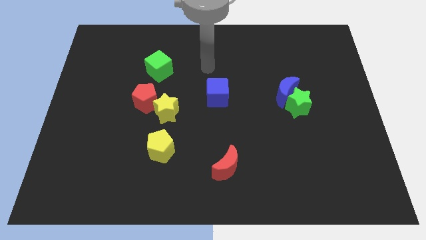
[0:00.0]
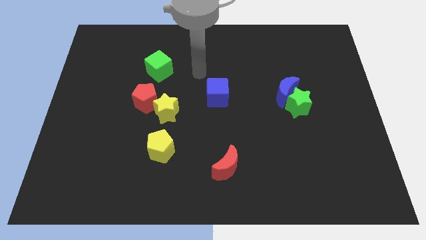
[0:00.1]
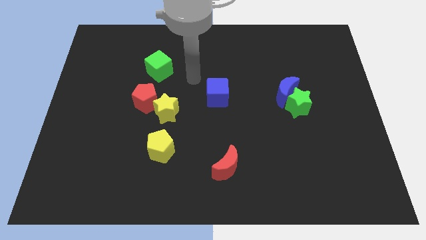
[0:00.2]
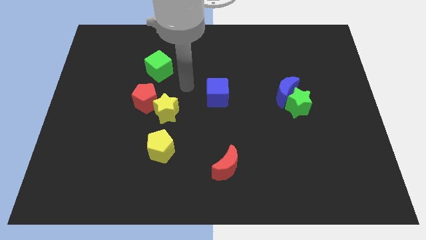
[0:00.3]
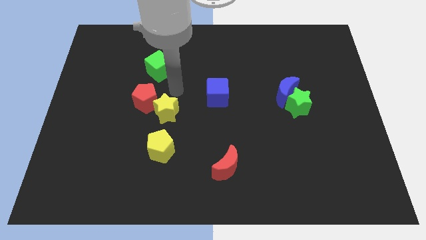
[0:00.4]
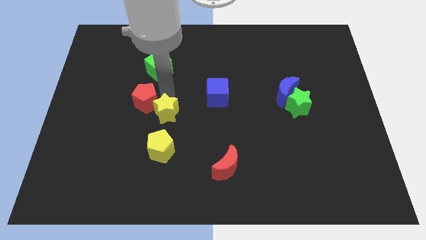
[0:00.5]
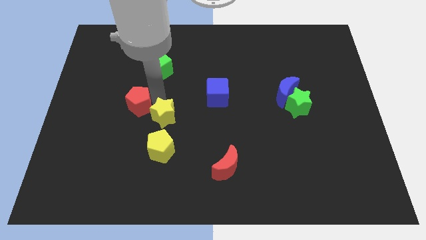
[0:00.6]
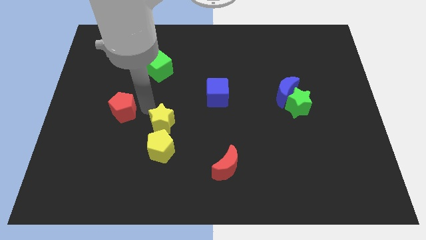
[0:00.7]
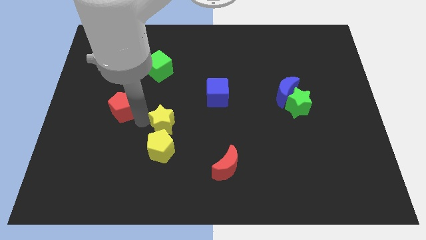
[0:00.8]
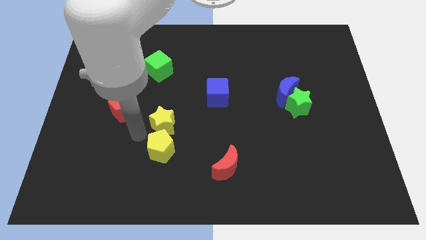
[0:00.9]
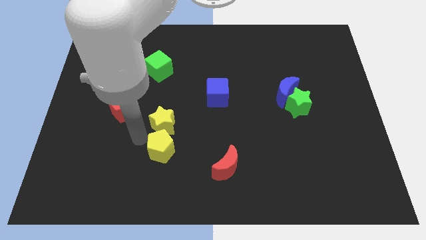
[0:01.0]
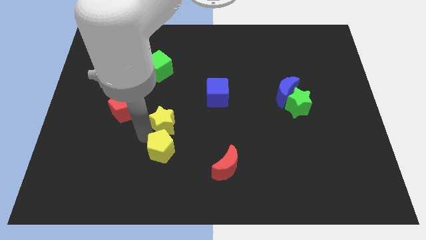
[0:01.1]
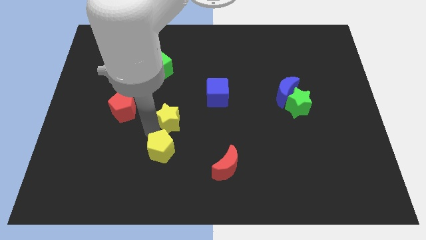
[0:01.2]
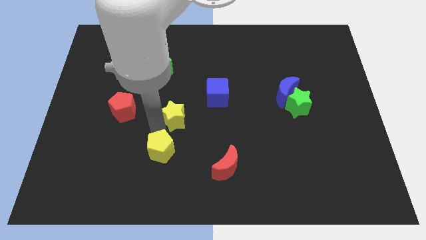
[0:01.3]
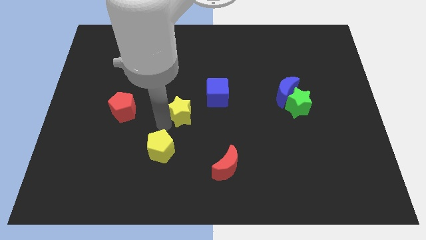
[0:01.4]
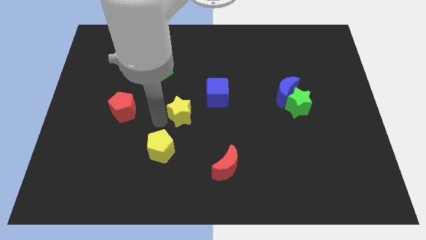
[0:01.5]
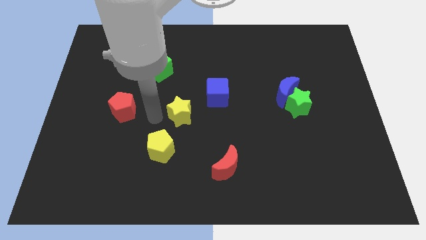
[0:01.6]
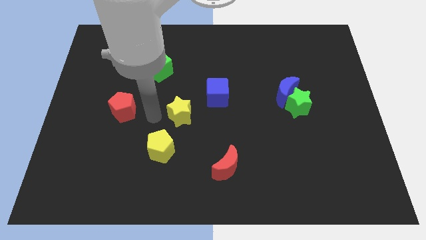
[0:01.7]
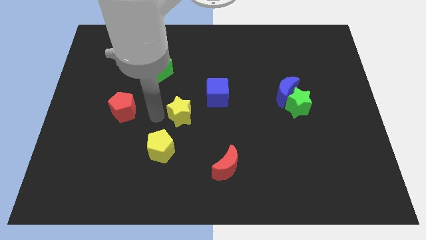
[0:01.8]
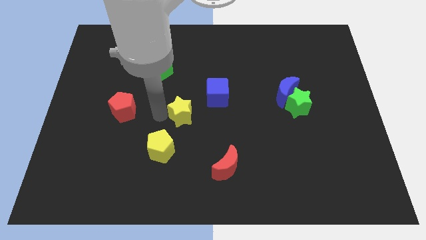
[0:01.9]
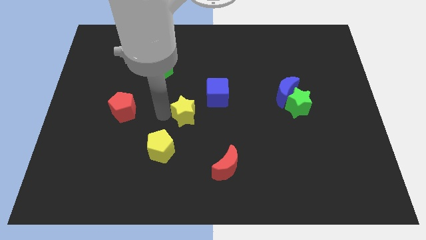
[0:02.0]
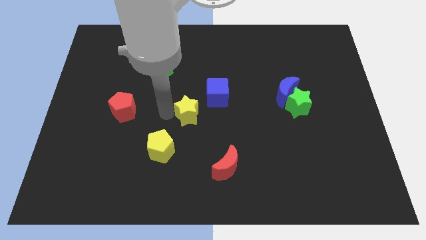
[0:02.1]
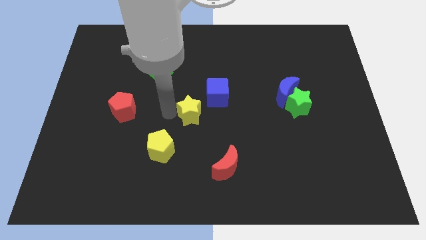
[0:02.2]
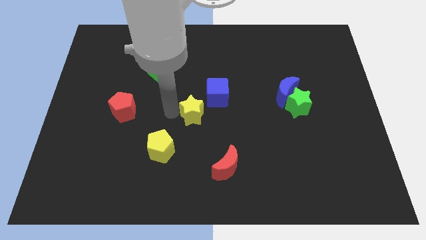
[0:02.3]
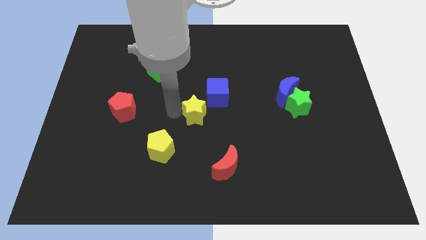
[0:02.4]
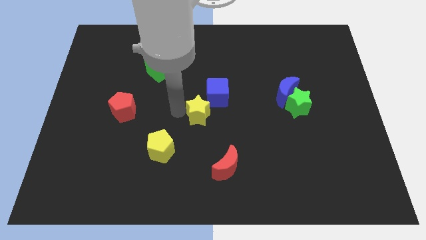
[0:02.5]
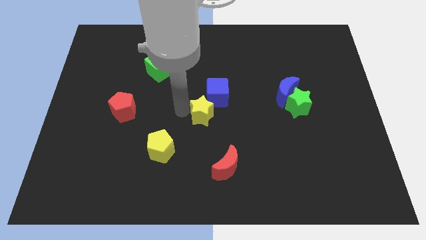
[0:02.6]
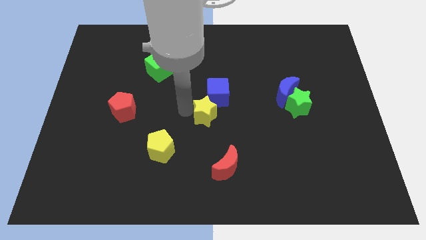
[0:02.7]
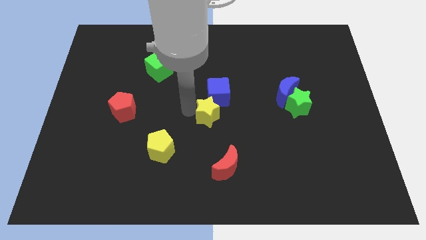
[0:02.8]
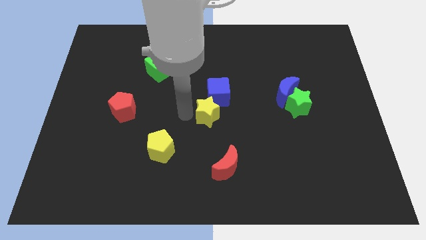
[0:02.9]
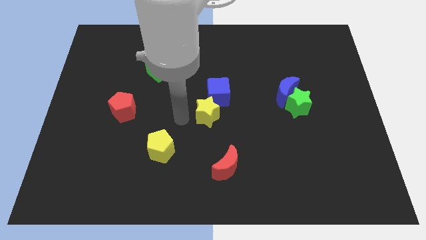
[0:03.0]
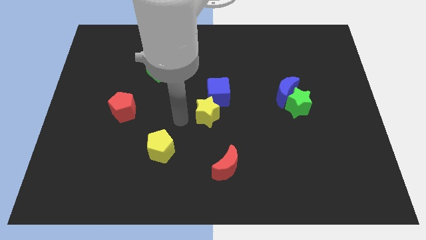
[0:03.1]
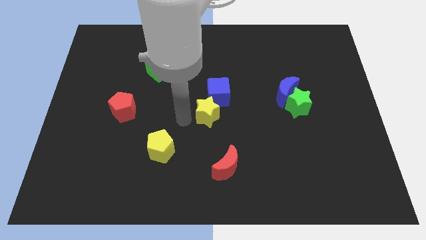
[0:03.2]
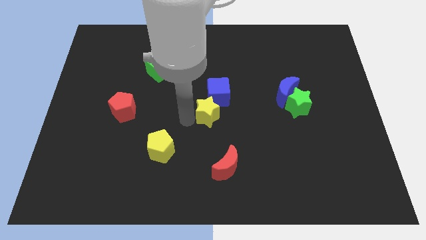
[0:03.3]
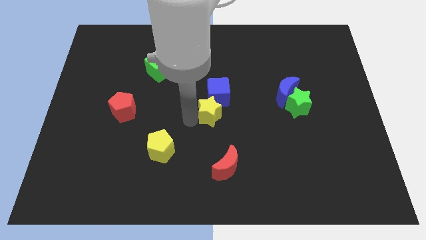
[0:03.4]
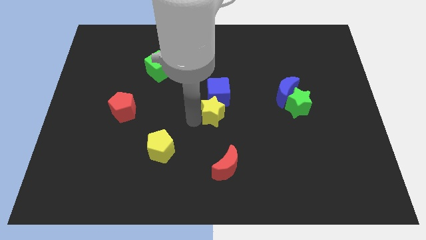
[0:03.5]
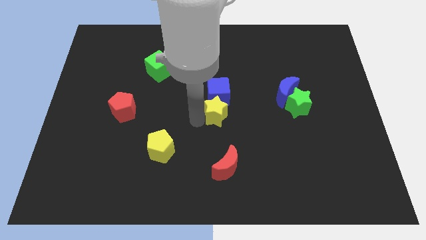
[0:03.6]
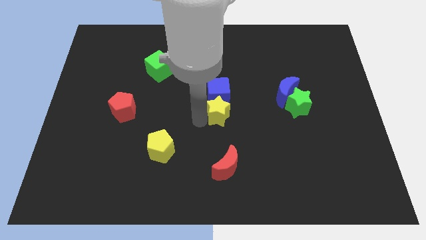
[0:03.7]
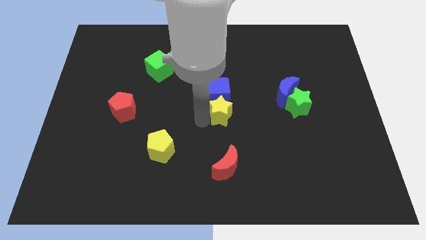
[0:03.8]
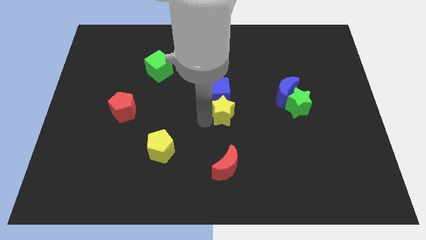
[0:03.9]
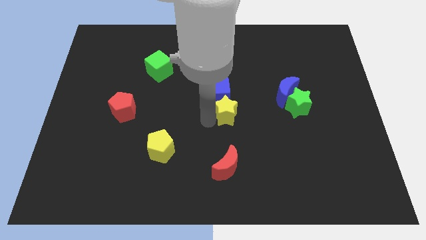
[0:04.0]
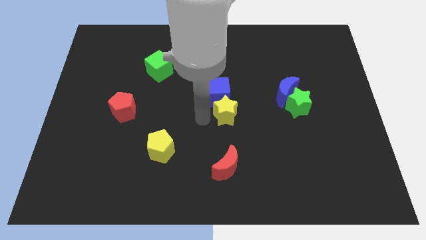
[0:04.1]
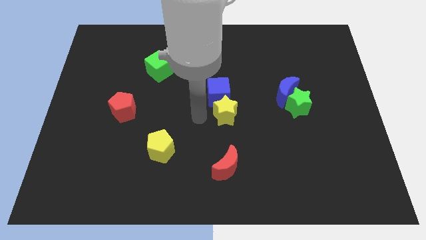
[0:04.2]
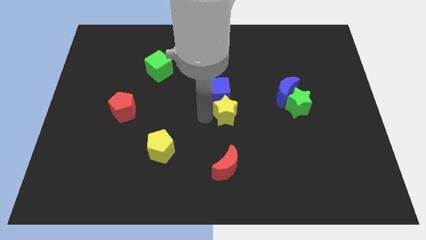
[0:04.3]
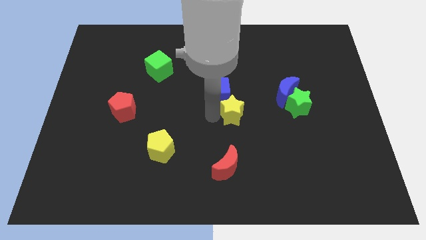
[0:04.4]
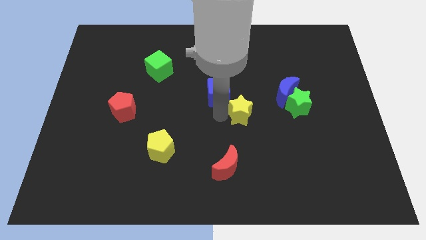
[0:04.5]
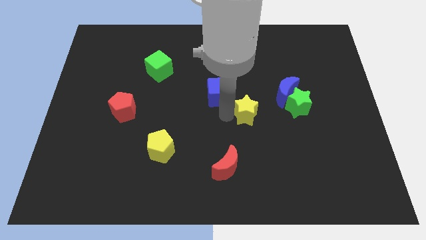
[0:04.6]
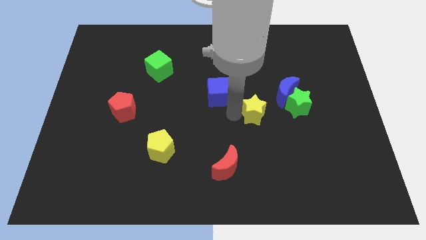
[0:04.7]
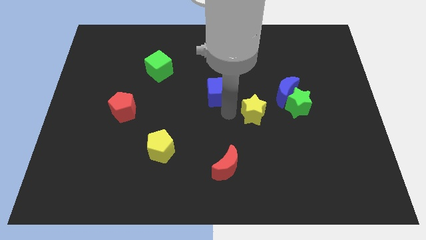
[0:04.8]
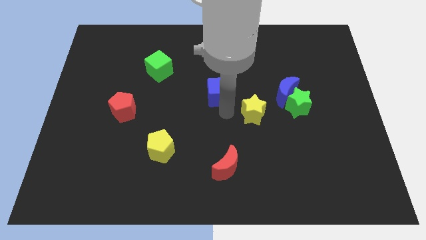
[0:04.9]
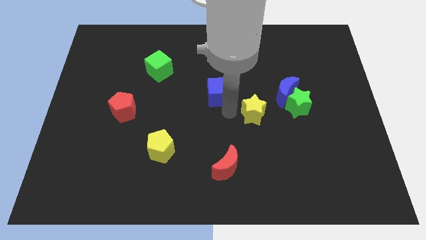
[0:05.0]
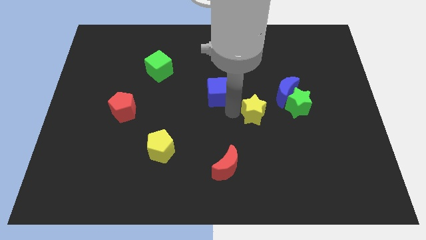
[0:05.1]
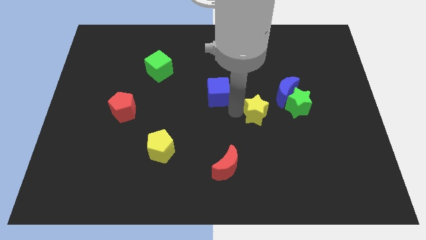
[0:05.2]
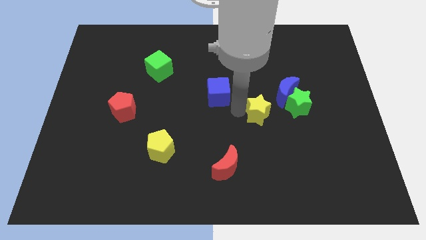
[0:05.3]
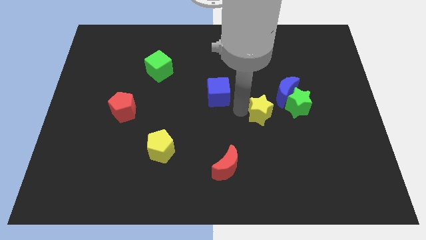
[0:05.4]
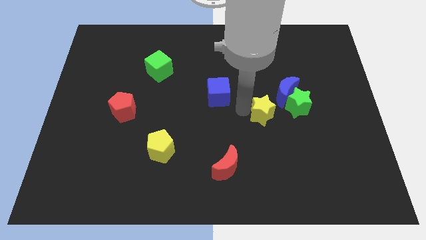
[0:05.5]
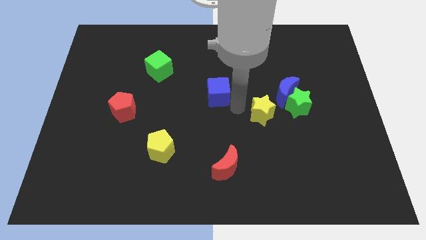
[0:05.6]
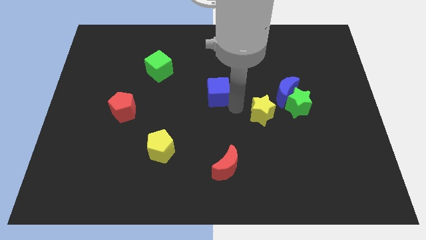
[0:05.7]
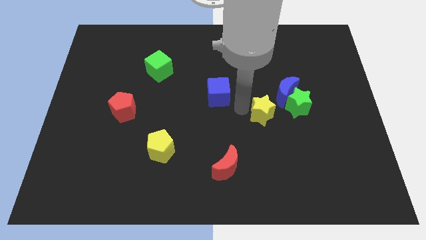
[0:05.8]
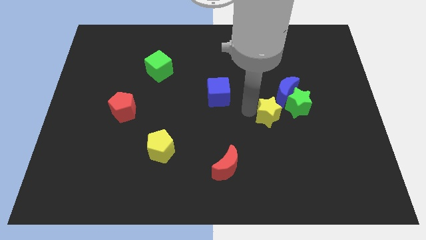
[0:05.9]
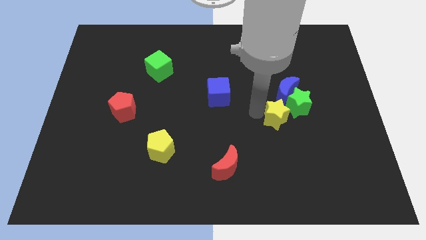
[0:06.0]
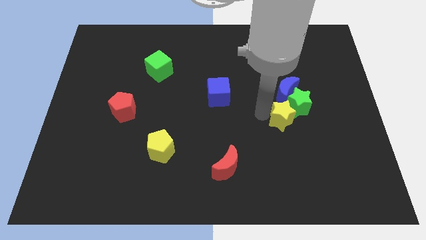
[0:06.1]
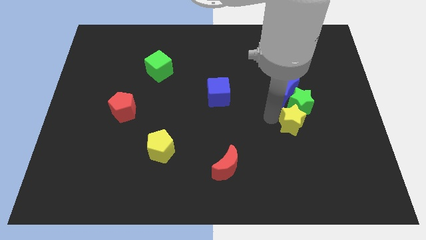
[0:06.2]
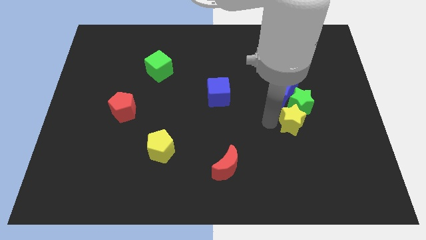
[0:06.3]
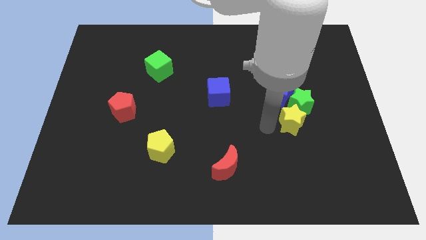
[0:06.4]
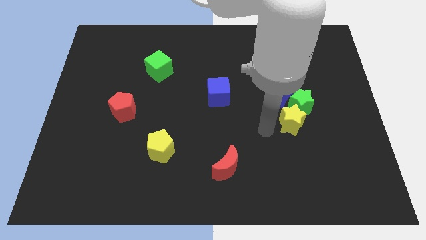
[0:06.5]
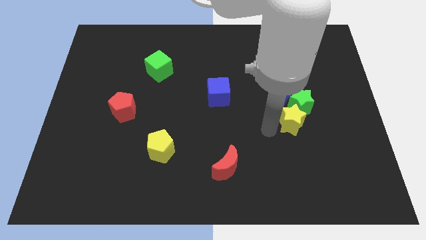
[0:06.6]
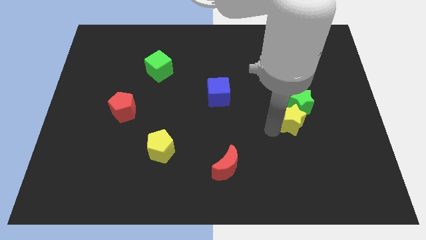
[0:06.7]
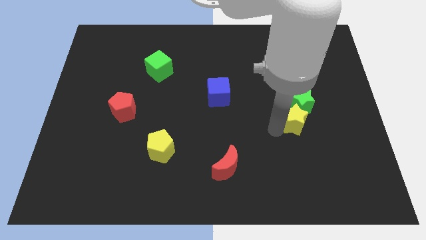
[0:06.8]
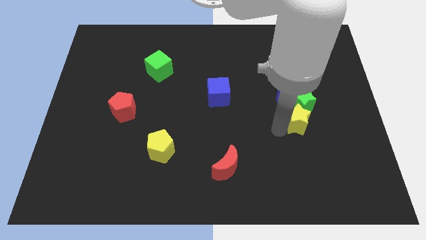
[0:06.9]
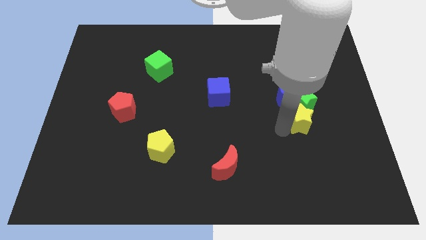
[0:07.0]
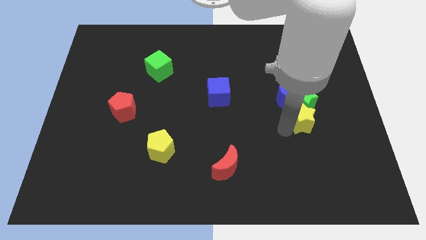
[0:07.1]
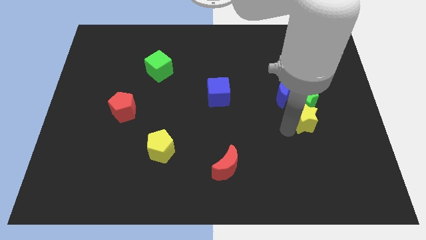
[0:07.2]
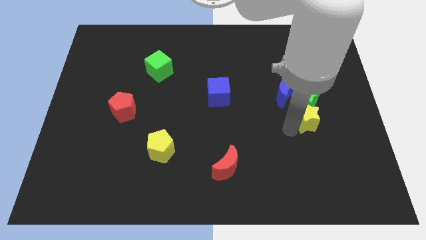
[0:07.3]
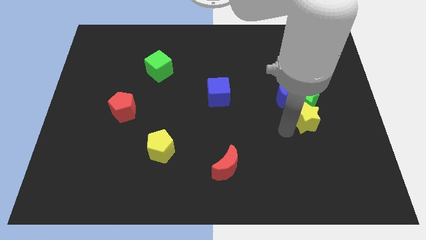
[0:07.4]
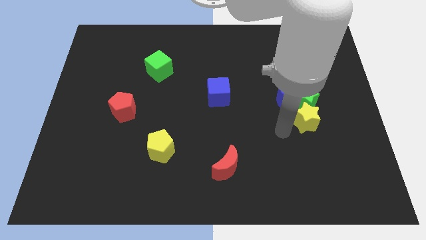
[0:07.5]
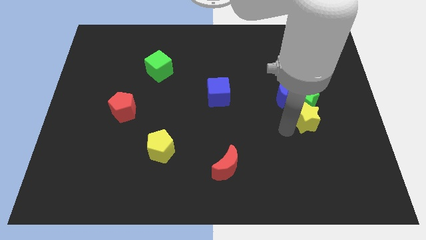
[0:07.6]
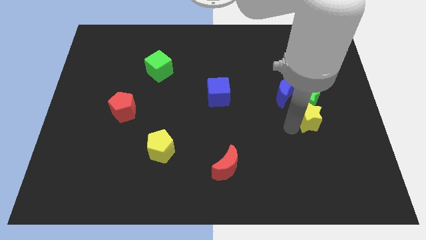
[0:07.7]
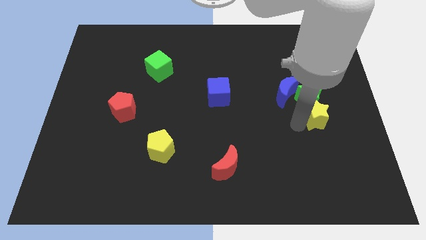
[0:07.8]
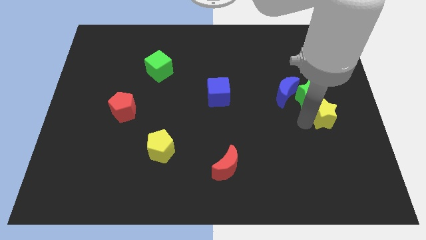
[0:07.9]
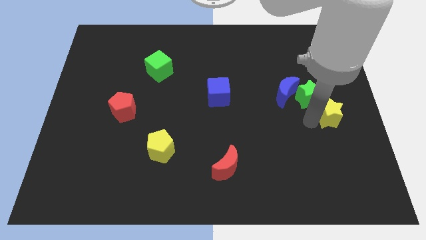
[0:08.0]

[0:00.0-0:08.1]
put the yellow star to the center right
